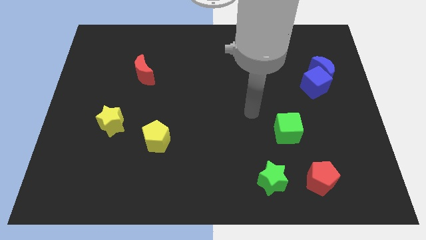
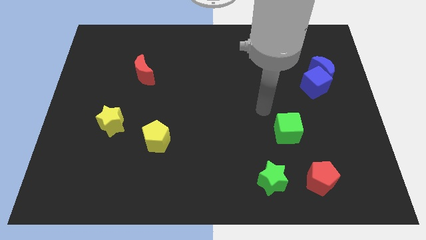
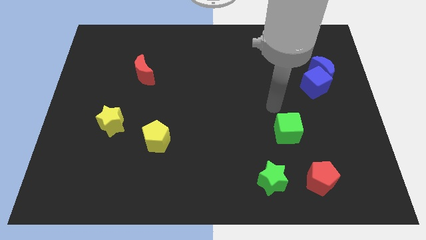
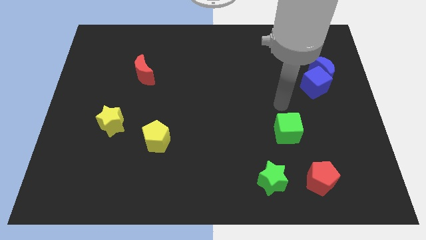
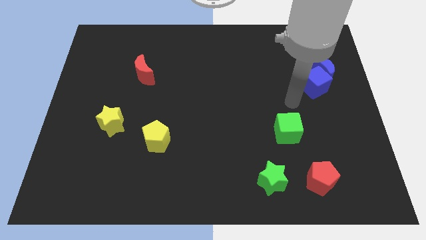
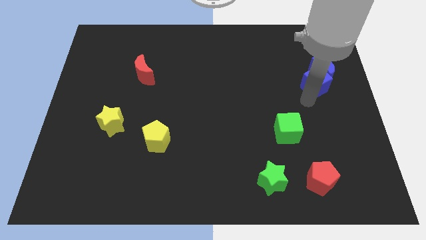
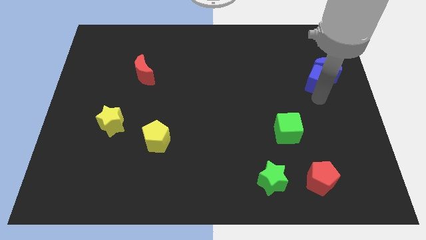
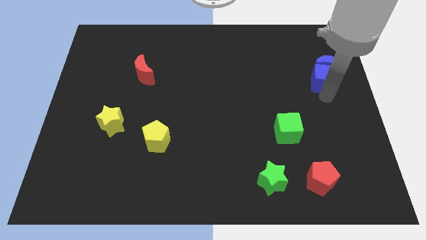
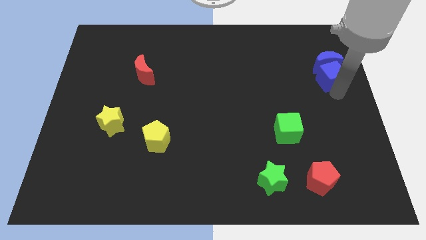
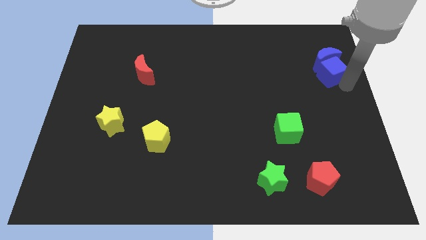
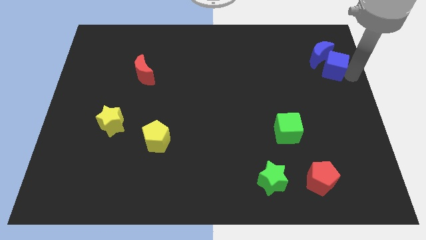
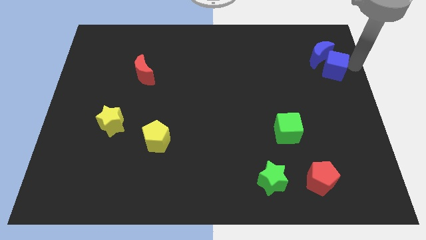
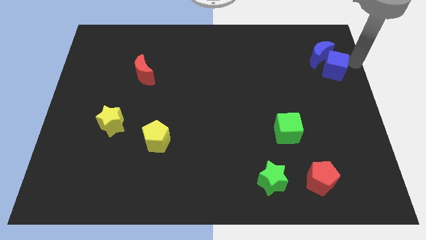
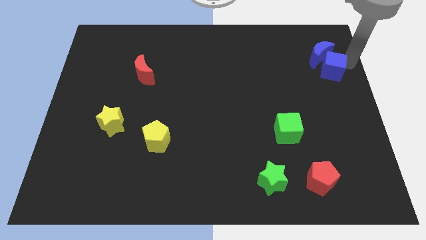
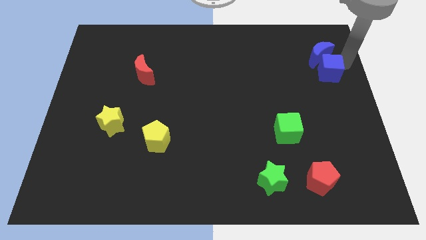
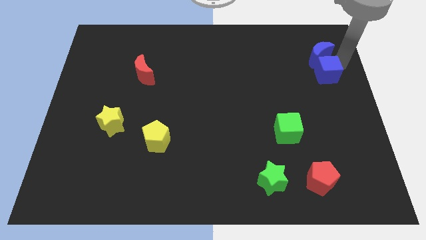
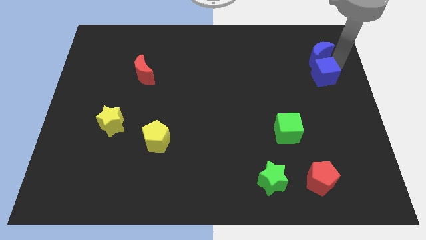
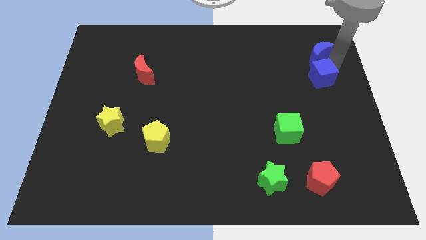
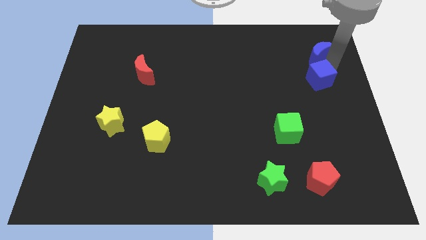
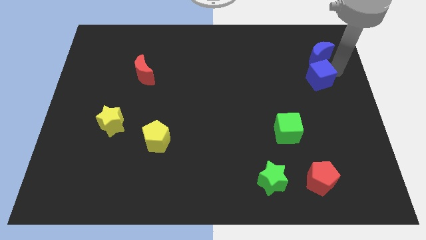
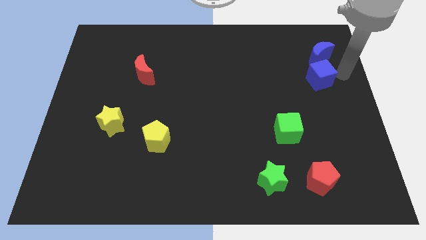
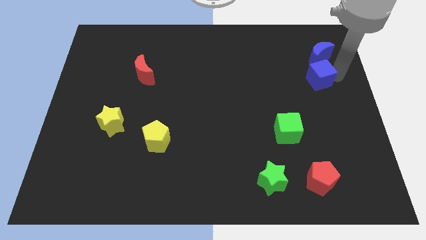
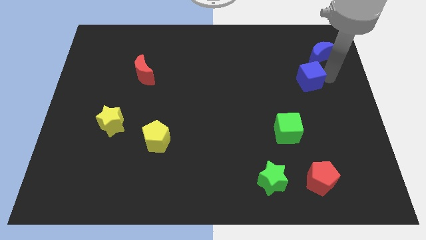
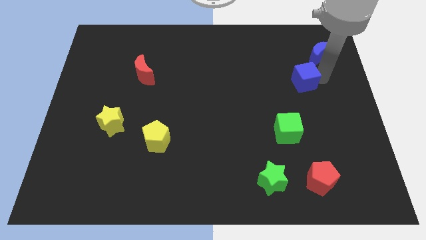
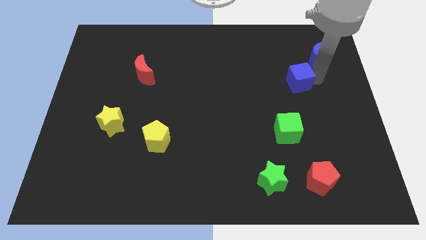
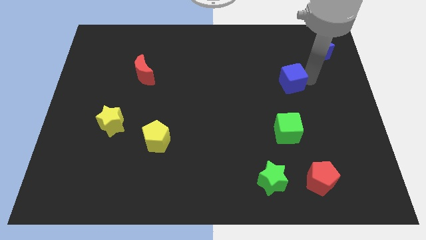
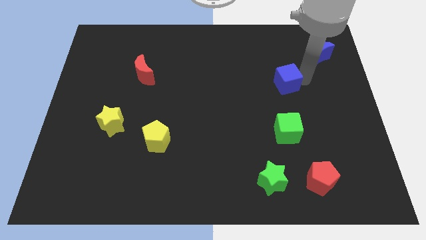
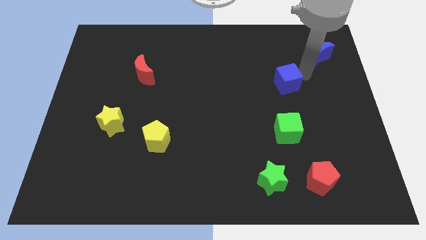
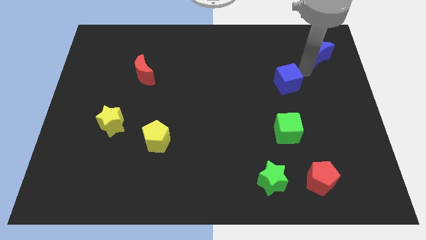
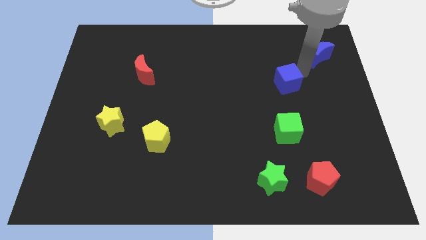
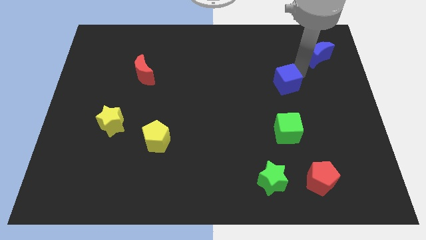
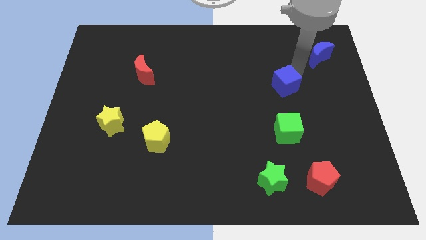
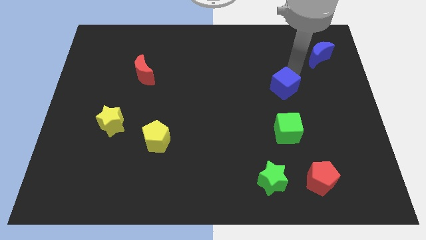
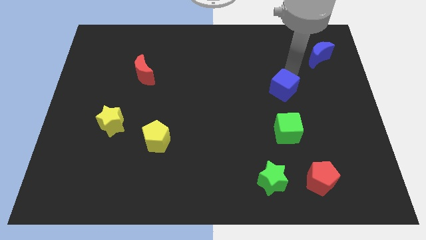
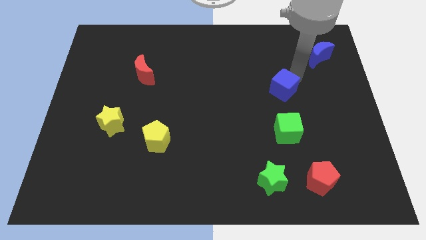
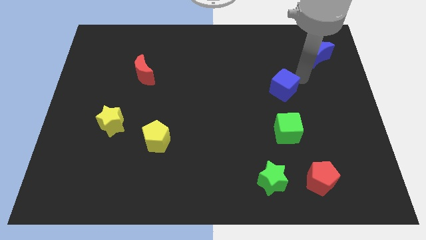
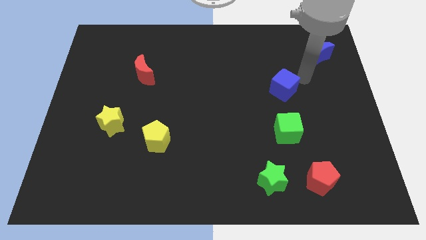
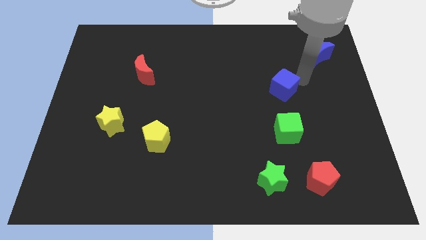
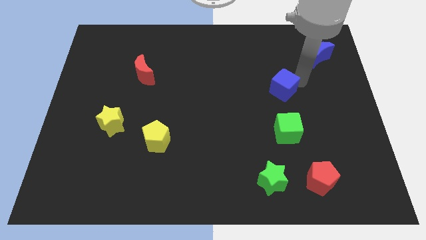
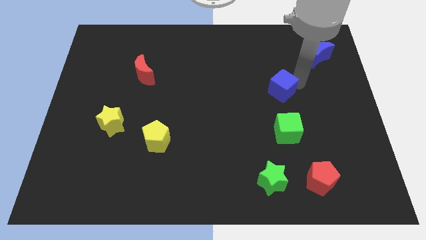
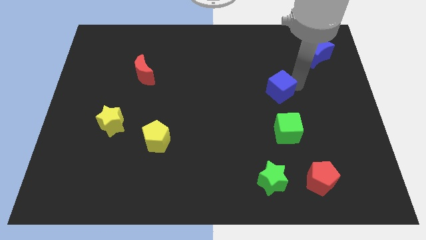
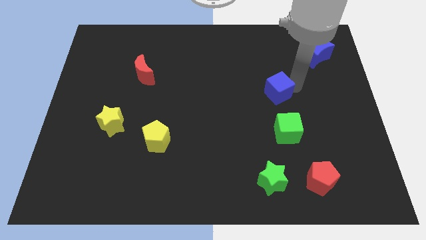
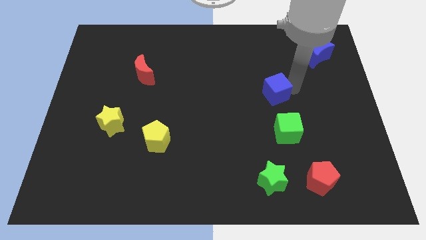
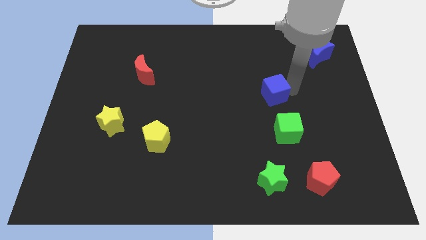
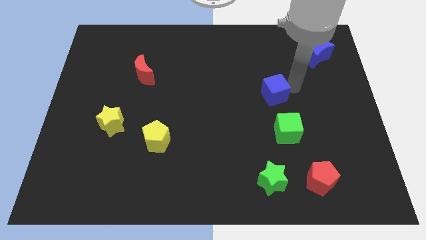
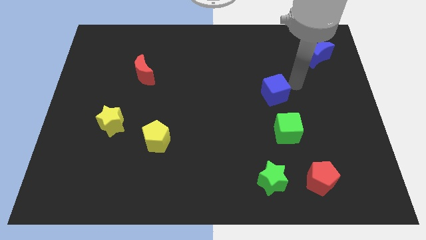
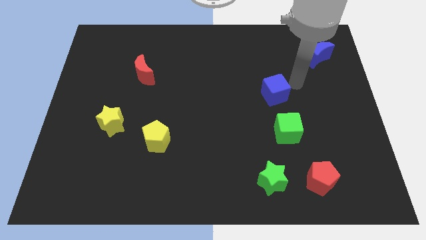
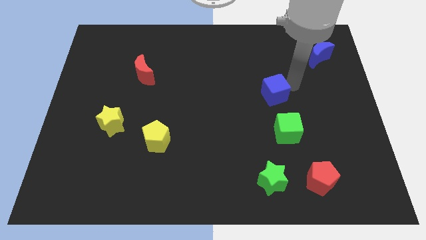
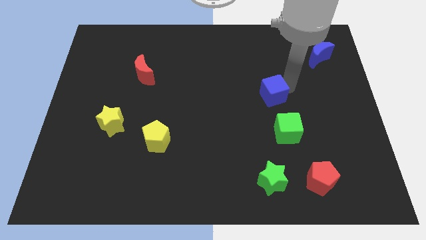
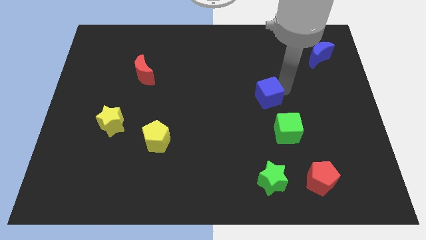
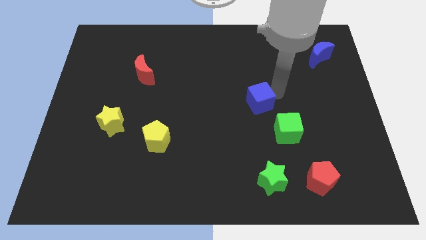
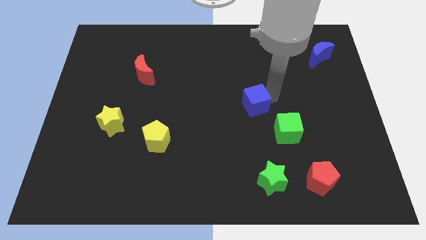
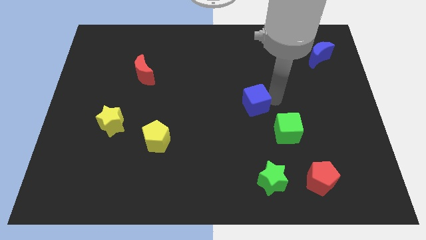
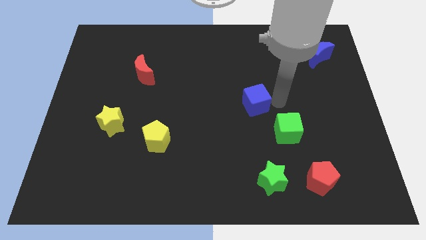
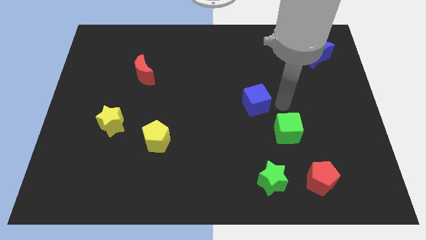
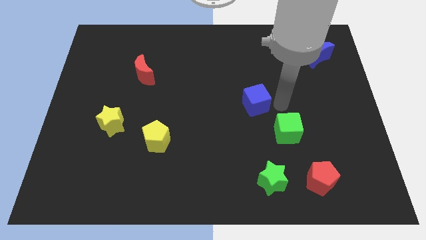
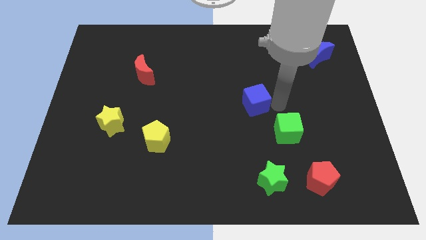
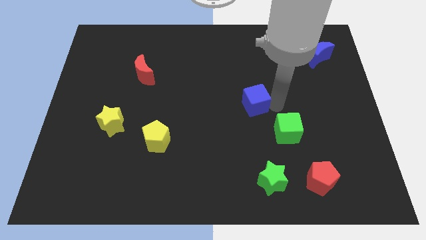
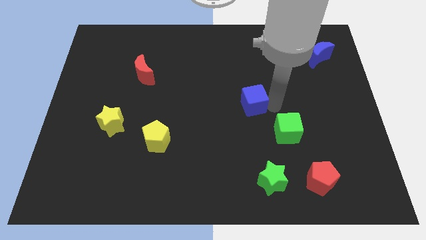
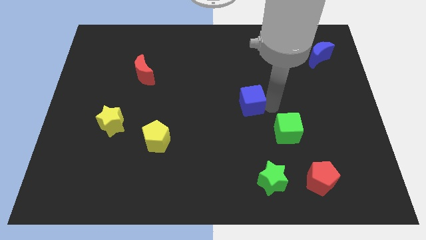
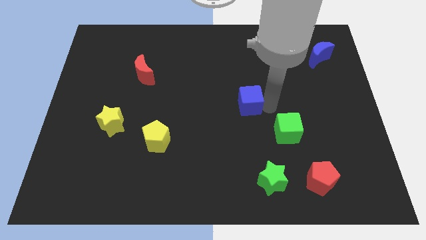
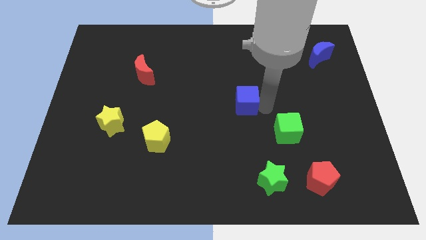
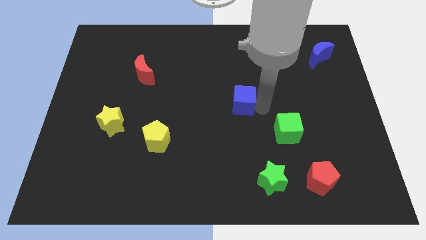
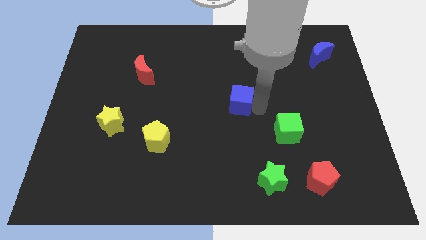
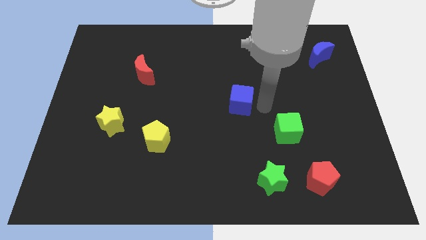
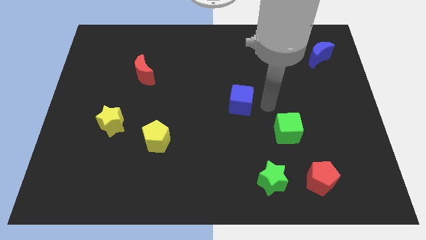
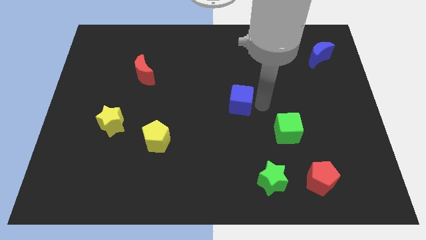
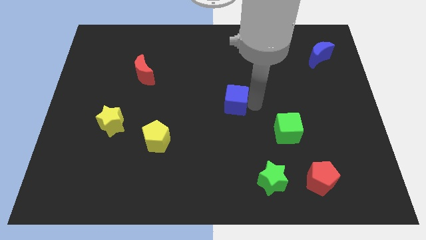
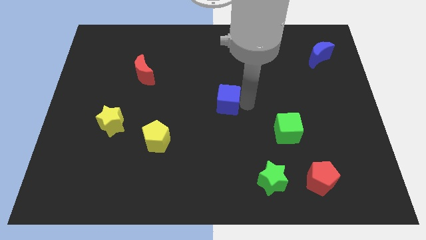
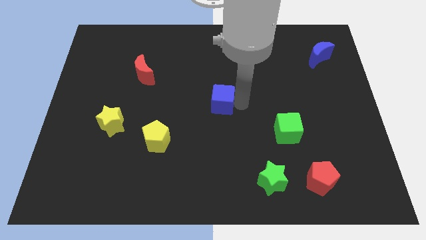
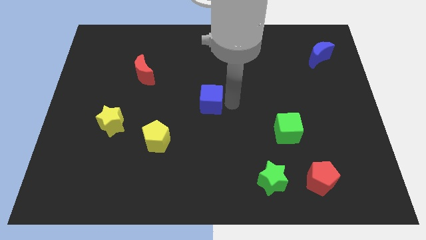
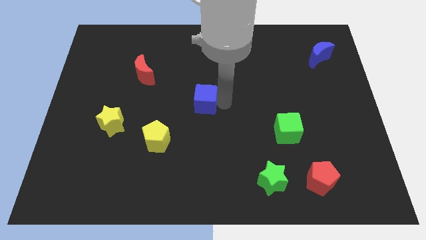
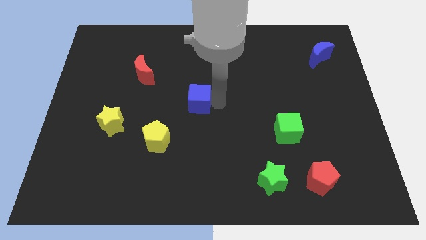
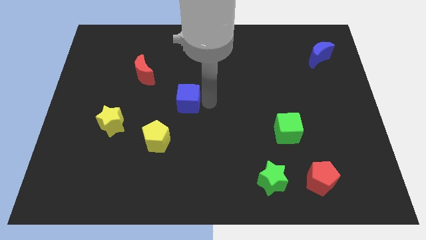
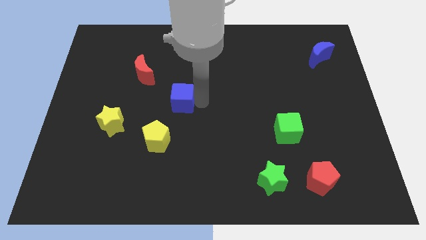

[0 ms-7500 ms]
push the blue cube above the yellow pentagon
